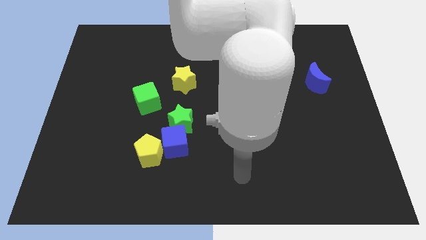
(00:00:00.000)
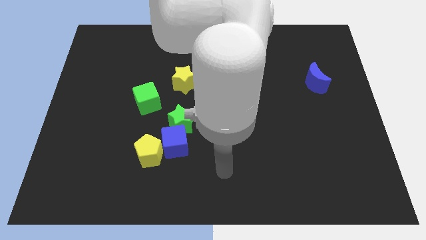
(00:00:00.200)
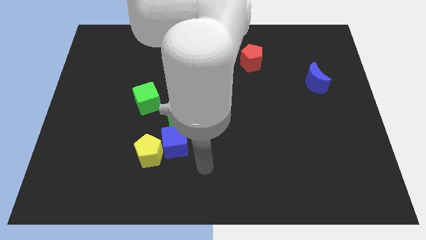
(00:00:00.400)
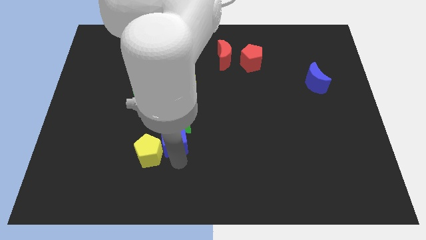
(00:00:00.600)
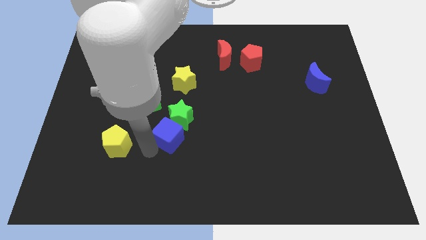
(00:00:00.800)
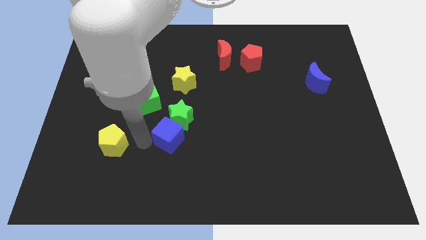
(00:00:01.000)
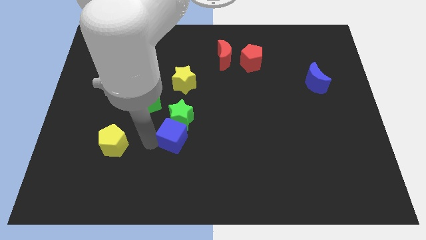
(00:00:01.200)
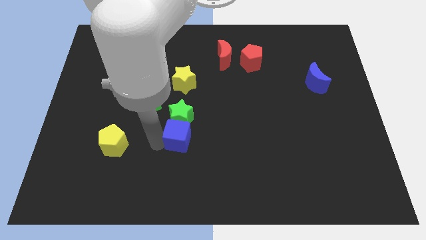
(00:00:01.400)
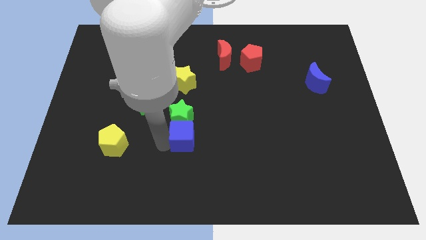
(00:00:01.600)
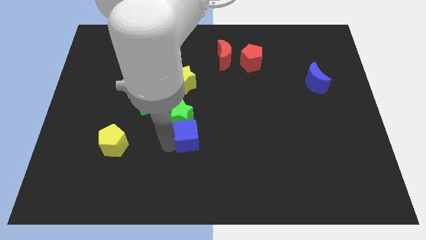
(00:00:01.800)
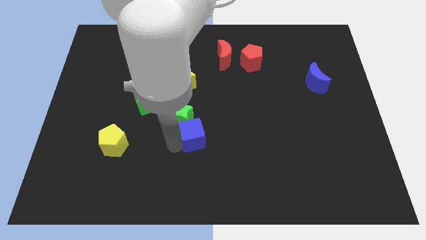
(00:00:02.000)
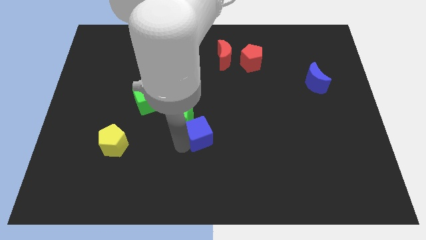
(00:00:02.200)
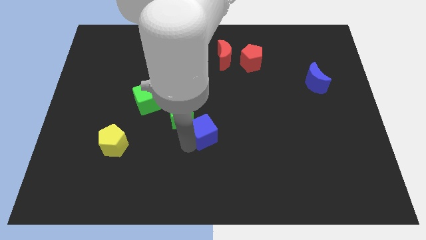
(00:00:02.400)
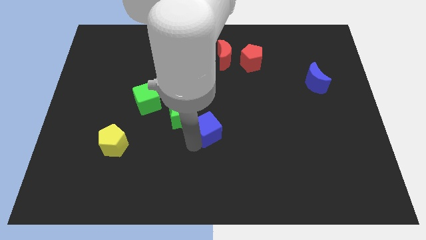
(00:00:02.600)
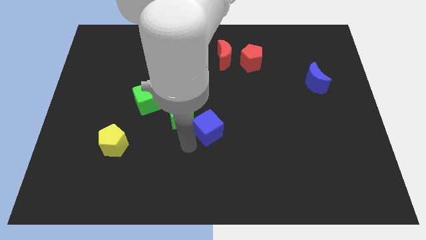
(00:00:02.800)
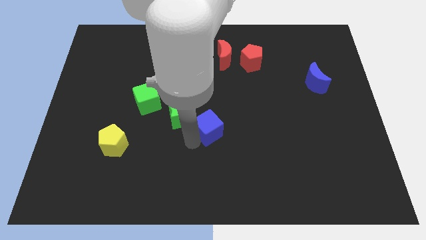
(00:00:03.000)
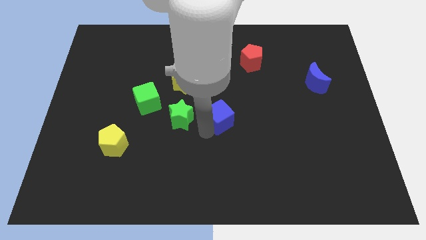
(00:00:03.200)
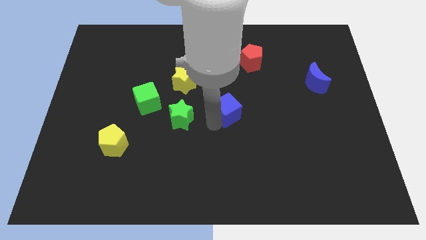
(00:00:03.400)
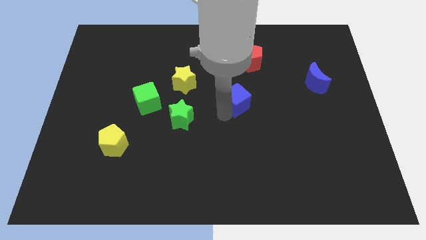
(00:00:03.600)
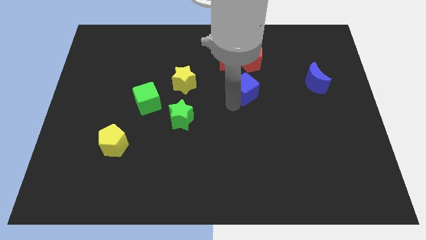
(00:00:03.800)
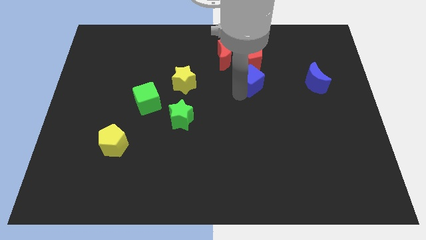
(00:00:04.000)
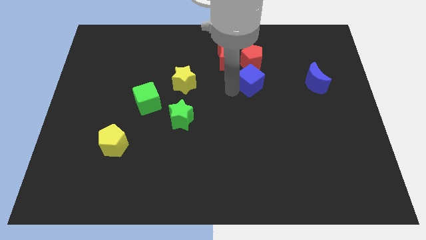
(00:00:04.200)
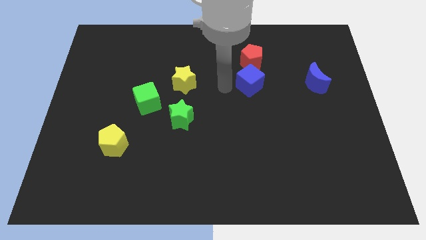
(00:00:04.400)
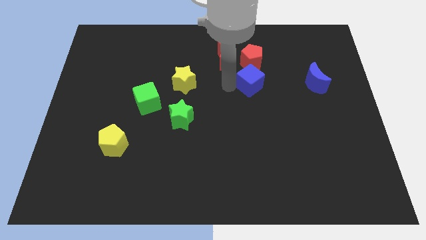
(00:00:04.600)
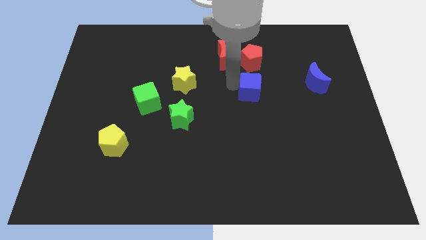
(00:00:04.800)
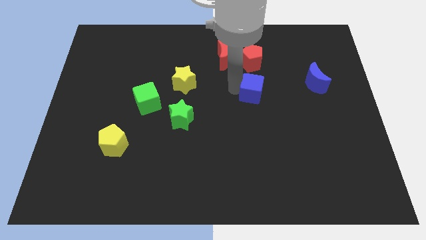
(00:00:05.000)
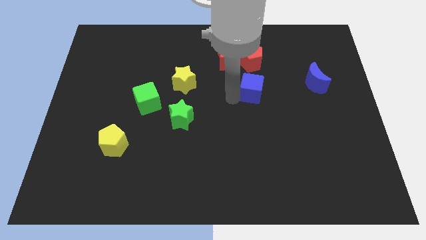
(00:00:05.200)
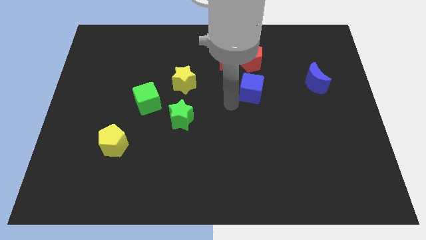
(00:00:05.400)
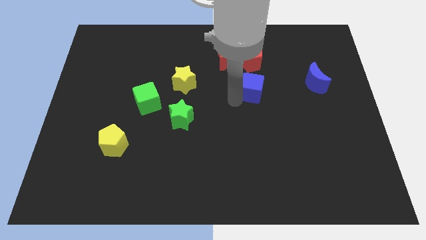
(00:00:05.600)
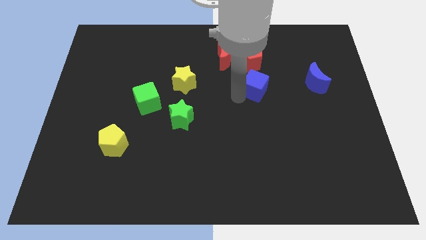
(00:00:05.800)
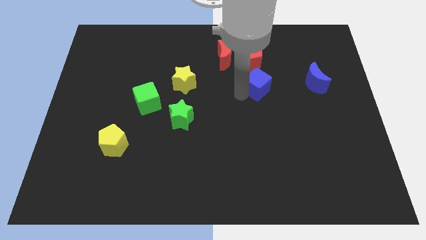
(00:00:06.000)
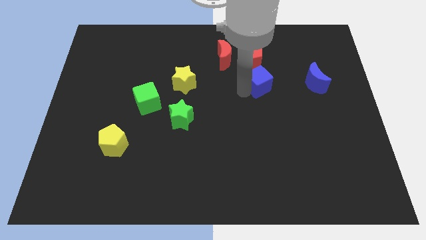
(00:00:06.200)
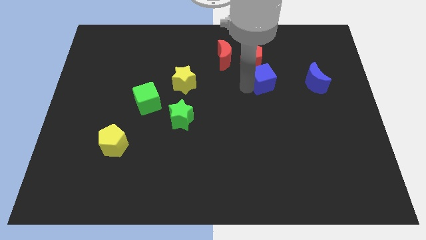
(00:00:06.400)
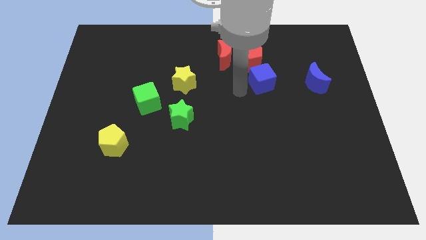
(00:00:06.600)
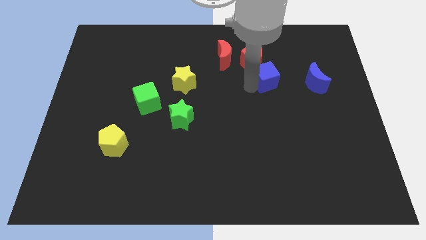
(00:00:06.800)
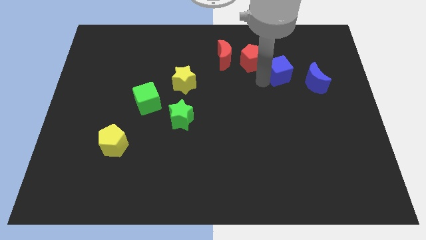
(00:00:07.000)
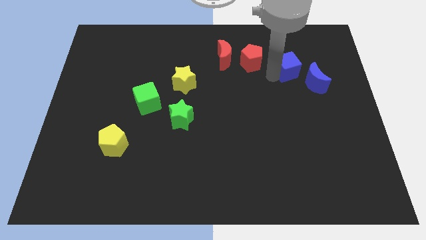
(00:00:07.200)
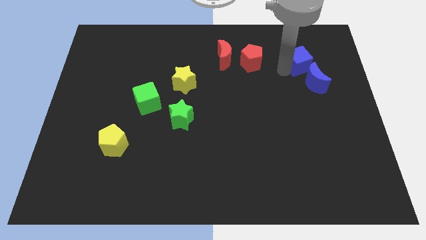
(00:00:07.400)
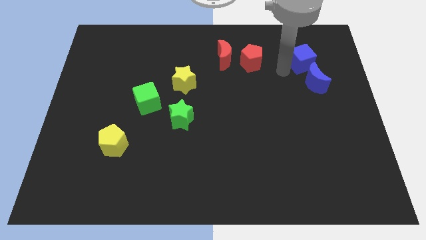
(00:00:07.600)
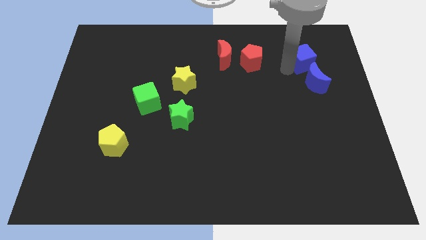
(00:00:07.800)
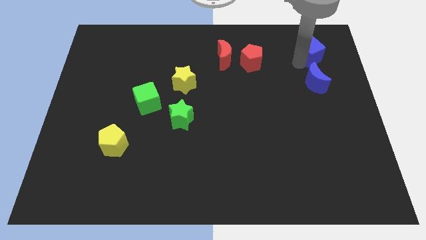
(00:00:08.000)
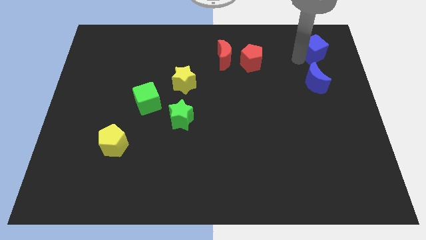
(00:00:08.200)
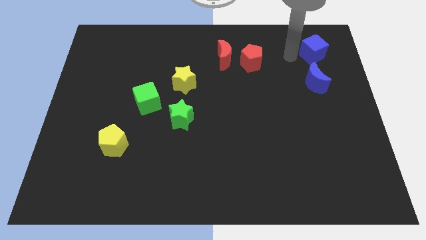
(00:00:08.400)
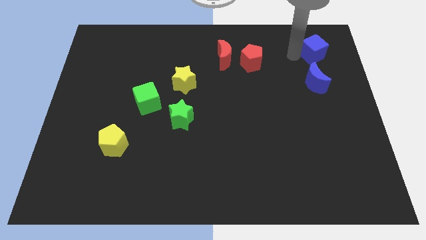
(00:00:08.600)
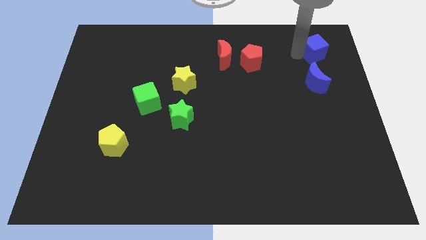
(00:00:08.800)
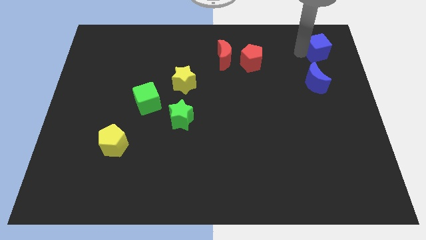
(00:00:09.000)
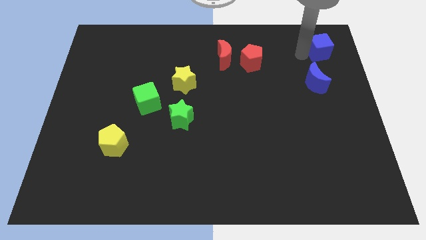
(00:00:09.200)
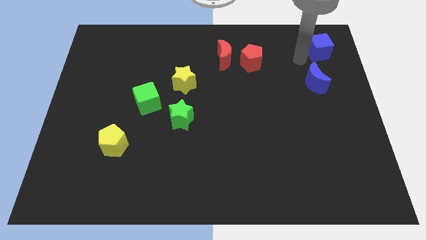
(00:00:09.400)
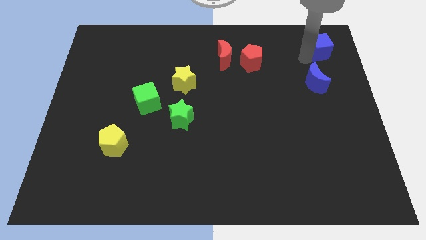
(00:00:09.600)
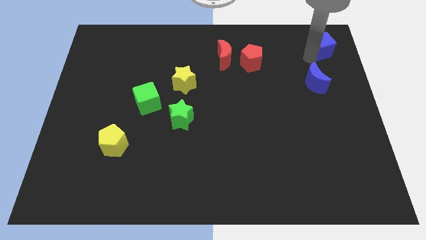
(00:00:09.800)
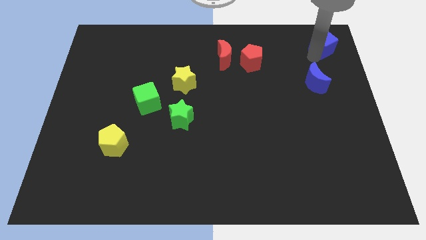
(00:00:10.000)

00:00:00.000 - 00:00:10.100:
put the blue cube to the top right

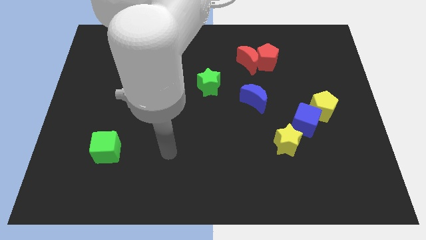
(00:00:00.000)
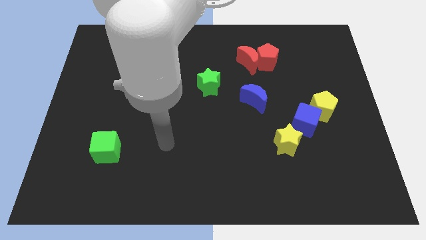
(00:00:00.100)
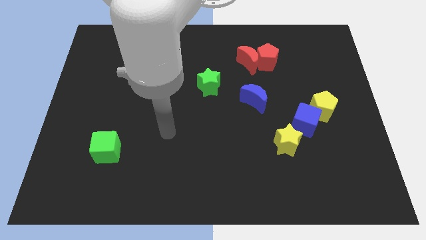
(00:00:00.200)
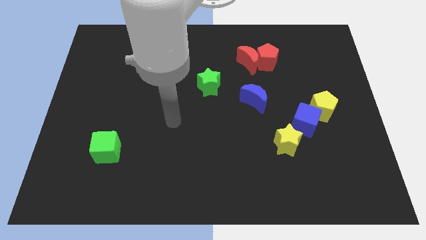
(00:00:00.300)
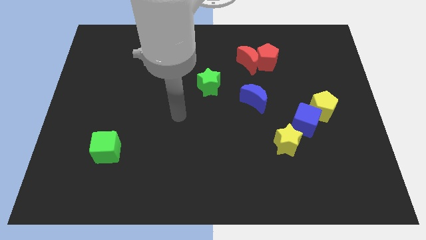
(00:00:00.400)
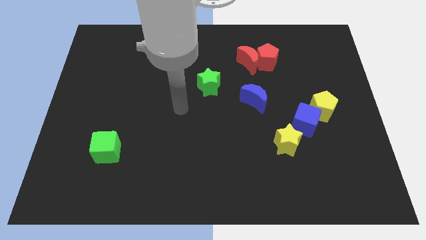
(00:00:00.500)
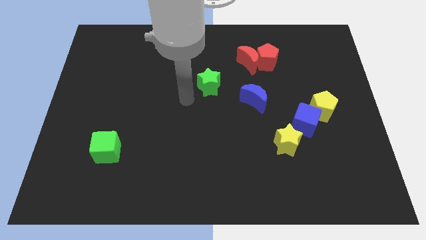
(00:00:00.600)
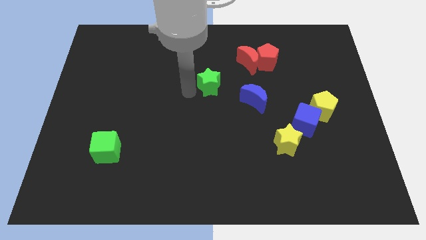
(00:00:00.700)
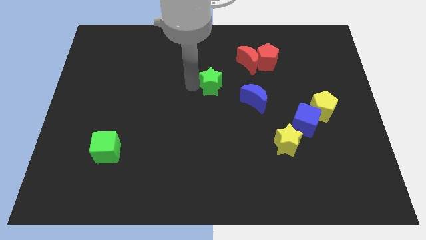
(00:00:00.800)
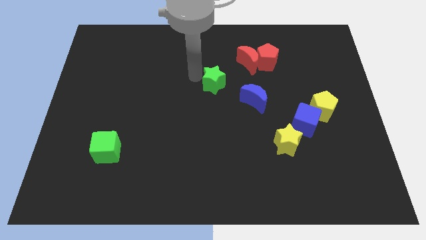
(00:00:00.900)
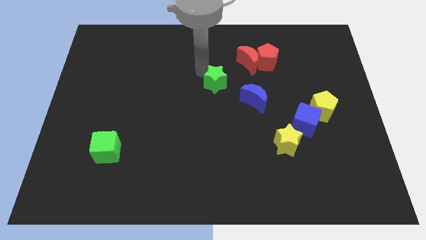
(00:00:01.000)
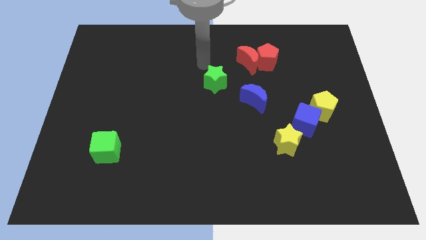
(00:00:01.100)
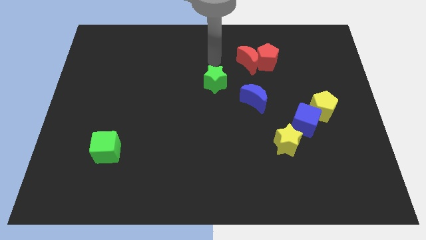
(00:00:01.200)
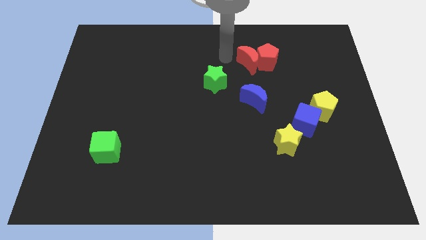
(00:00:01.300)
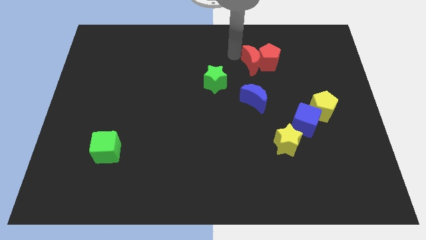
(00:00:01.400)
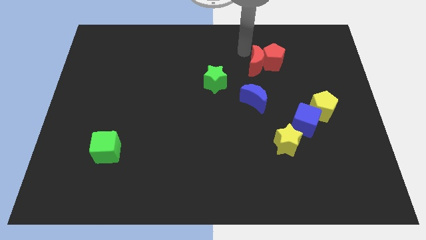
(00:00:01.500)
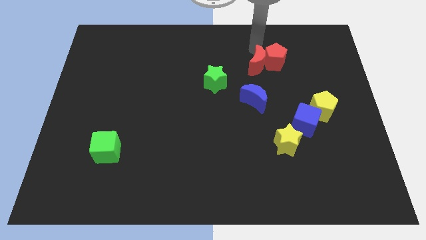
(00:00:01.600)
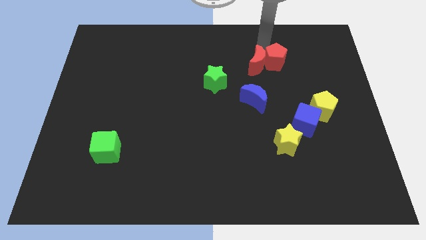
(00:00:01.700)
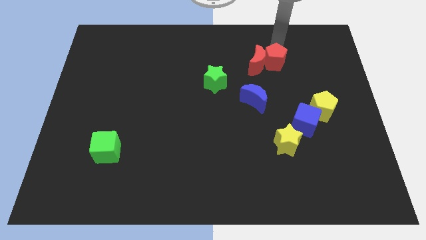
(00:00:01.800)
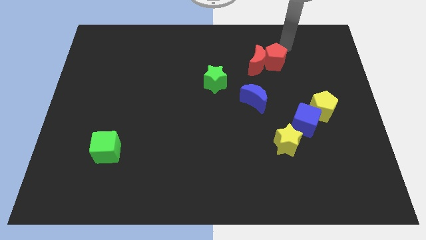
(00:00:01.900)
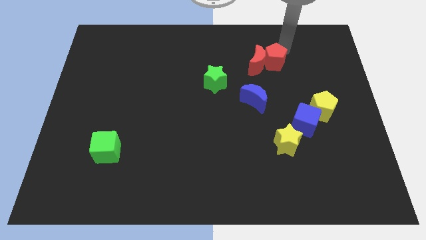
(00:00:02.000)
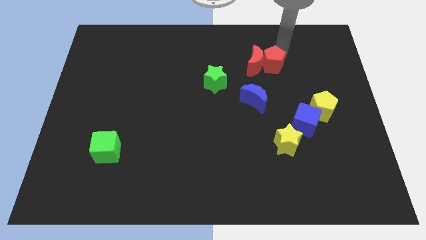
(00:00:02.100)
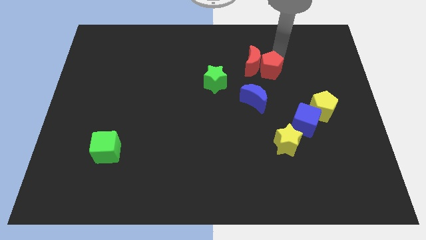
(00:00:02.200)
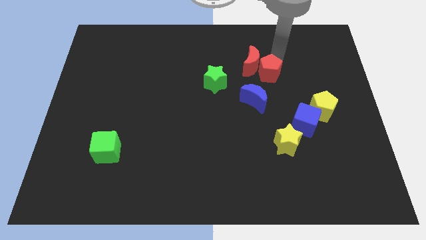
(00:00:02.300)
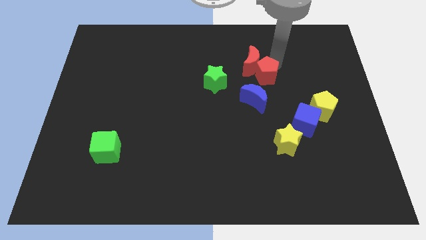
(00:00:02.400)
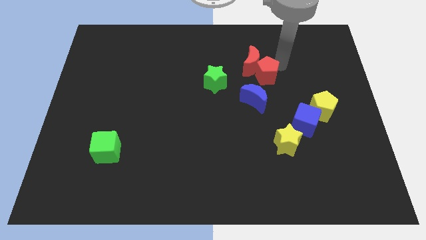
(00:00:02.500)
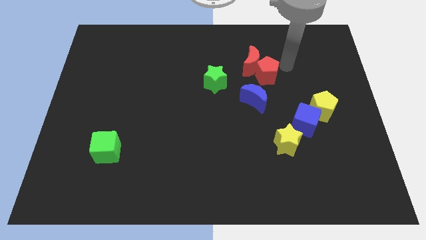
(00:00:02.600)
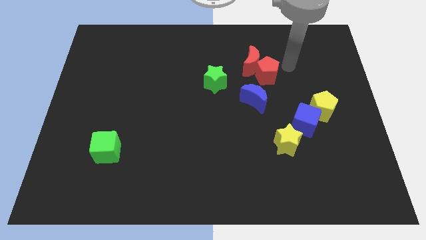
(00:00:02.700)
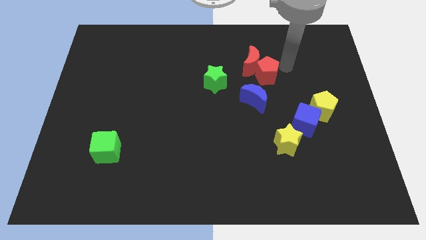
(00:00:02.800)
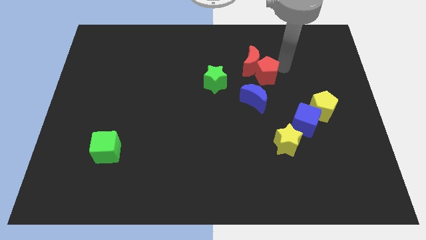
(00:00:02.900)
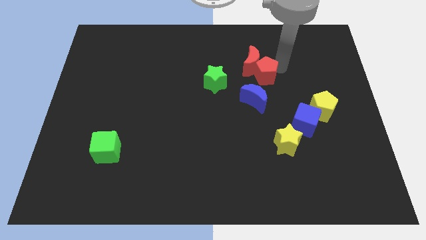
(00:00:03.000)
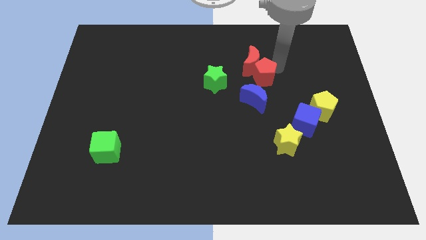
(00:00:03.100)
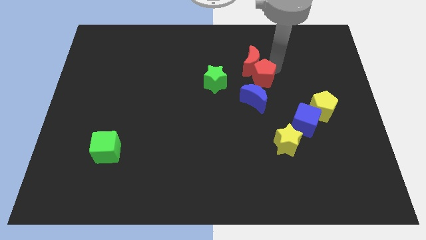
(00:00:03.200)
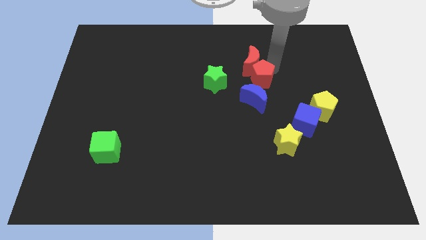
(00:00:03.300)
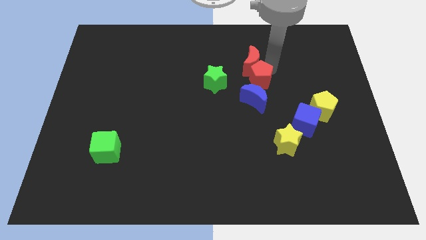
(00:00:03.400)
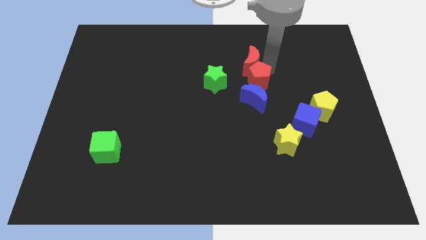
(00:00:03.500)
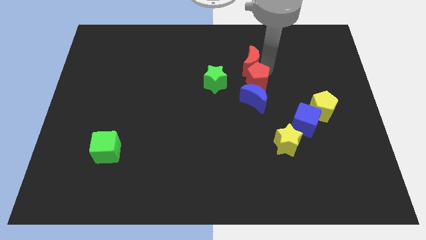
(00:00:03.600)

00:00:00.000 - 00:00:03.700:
push the red pentagon to the middle of the board
